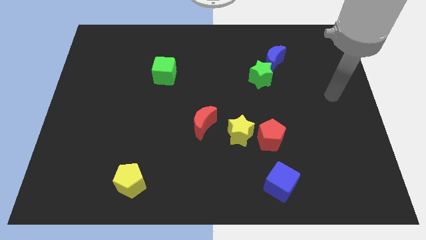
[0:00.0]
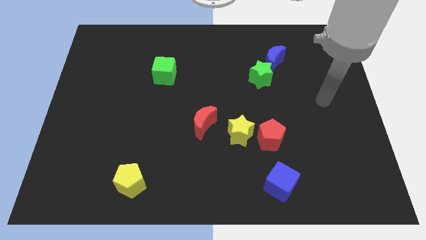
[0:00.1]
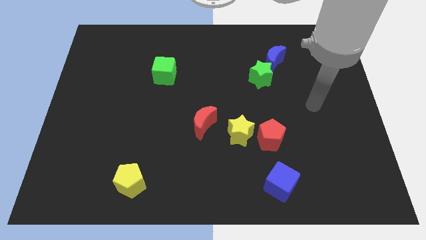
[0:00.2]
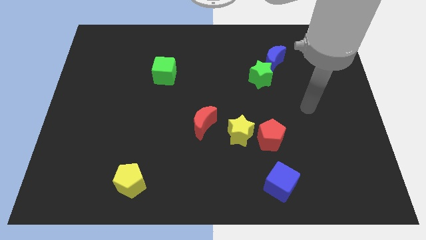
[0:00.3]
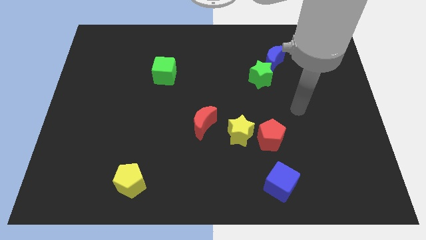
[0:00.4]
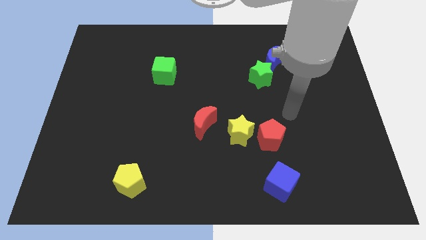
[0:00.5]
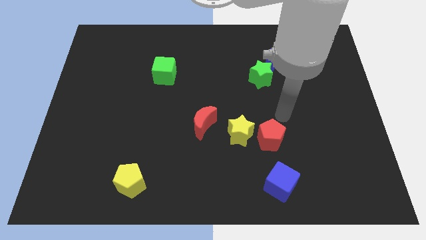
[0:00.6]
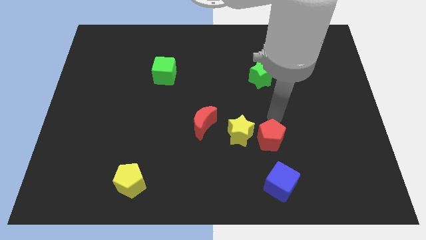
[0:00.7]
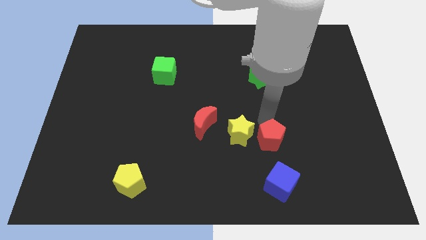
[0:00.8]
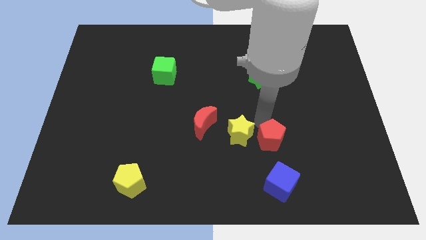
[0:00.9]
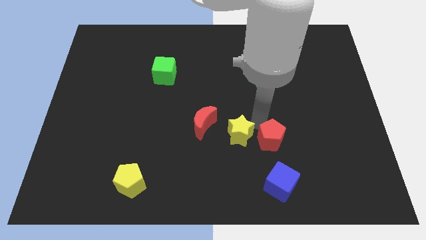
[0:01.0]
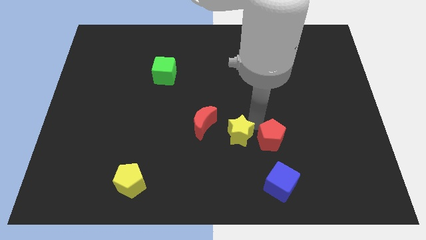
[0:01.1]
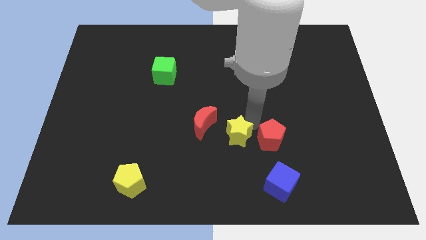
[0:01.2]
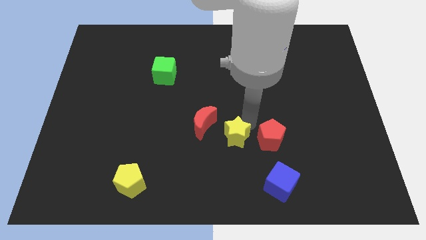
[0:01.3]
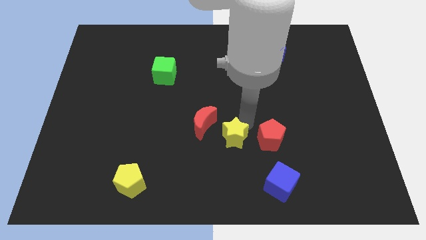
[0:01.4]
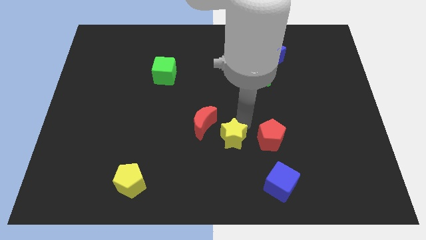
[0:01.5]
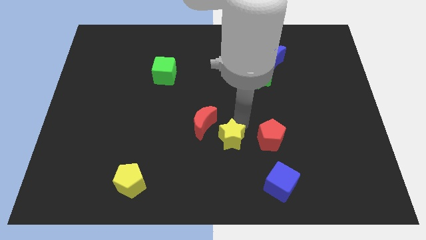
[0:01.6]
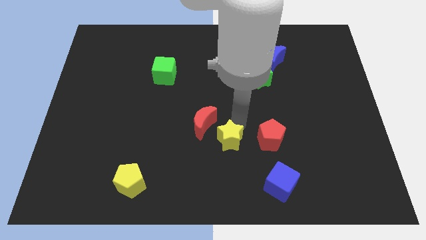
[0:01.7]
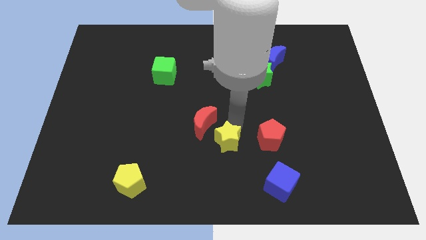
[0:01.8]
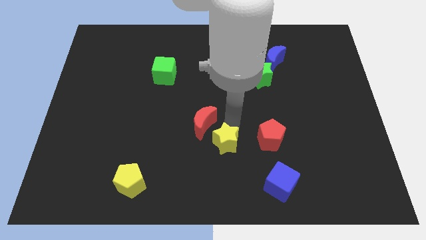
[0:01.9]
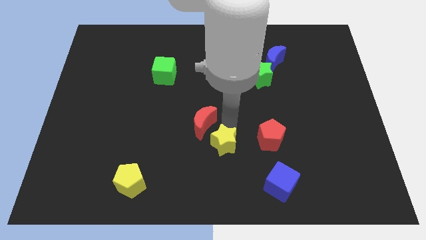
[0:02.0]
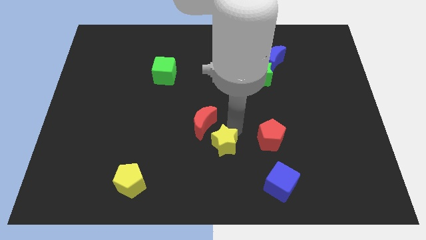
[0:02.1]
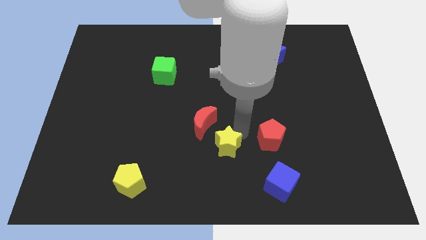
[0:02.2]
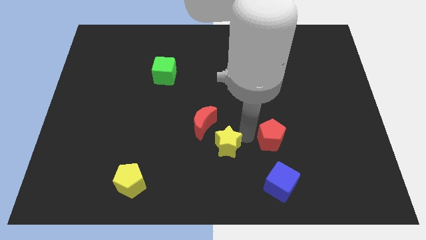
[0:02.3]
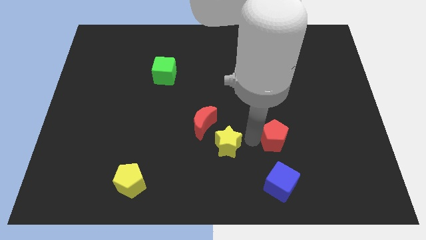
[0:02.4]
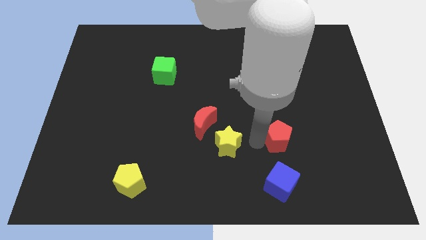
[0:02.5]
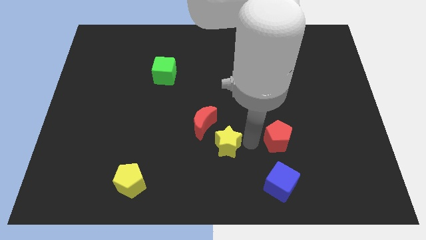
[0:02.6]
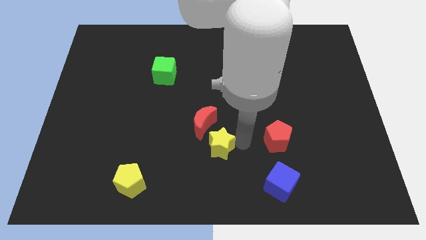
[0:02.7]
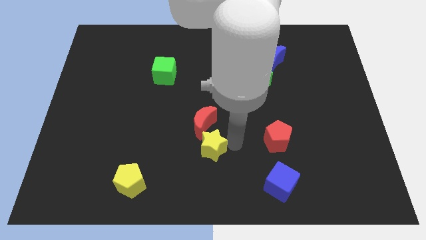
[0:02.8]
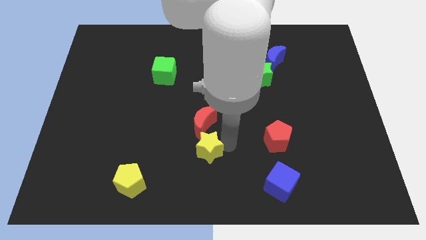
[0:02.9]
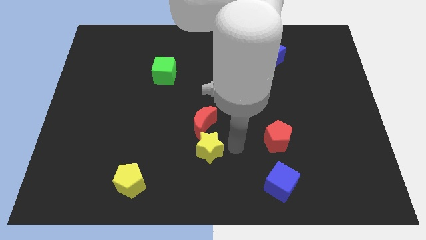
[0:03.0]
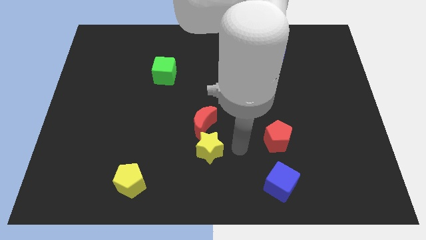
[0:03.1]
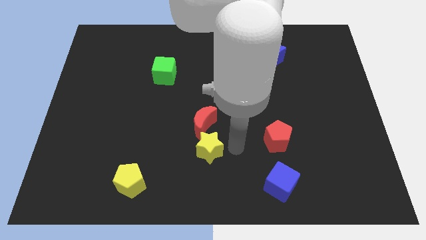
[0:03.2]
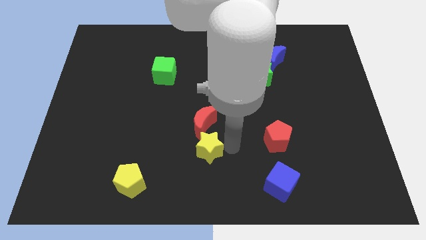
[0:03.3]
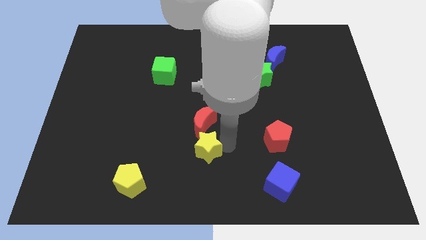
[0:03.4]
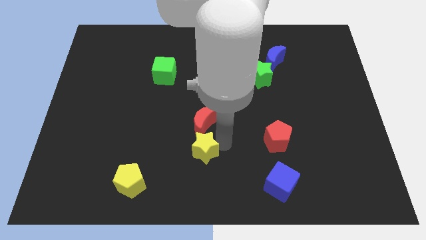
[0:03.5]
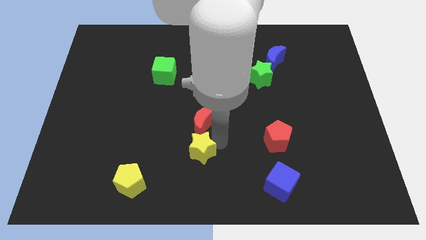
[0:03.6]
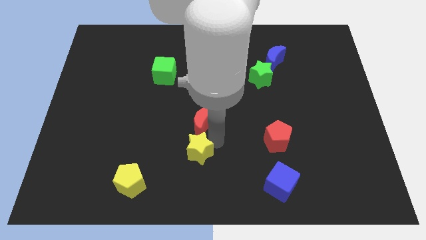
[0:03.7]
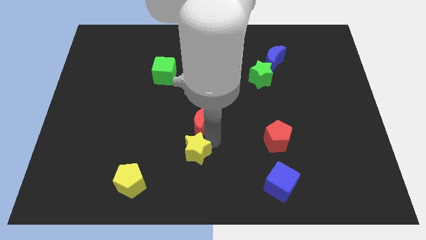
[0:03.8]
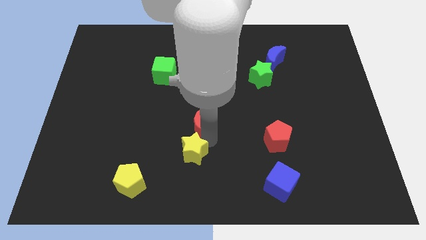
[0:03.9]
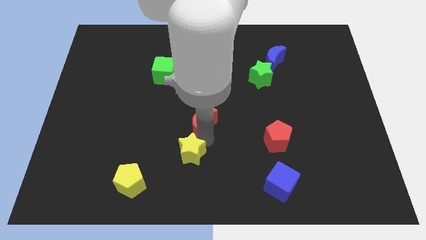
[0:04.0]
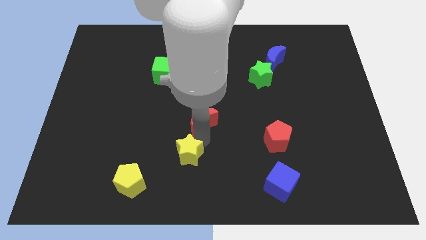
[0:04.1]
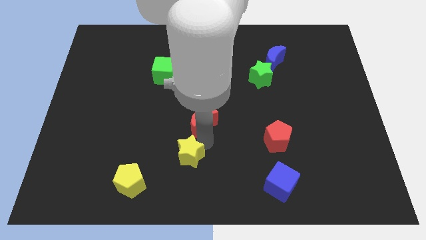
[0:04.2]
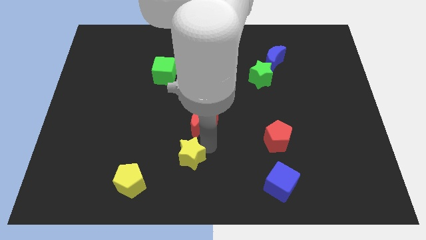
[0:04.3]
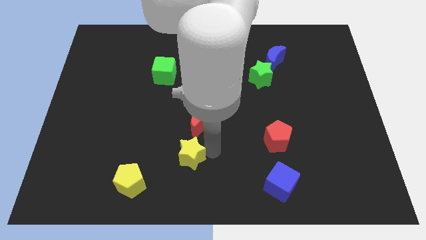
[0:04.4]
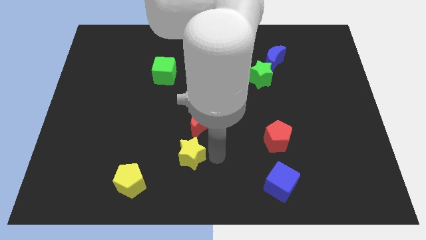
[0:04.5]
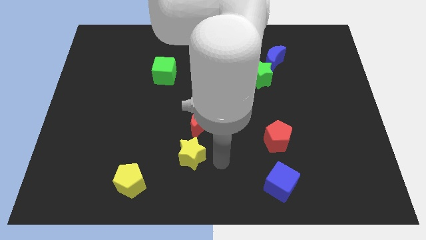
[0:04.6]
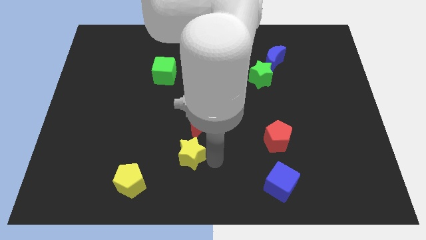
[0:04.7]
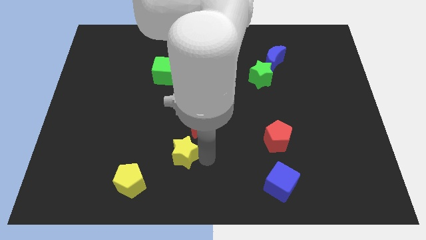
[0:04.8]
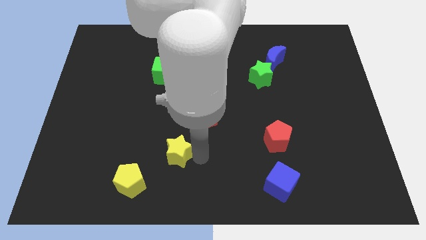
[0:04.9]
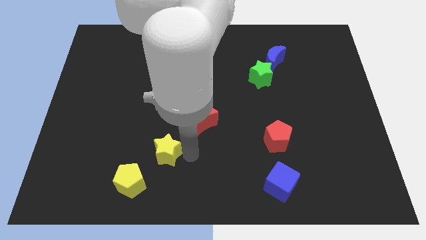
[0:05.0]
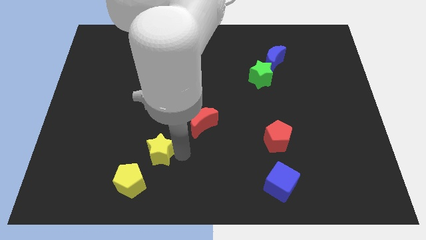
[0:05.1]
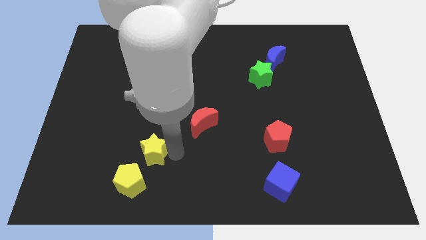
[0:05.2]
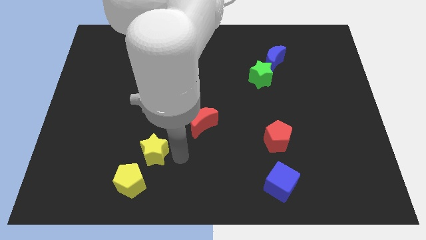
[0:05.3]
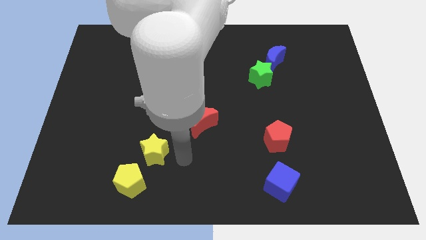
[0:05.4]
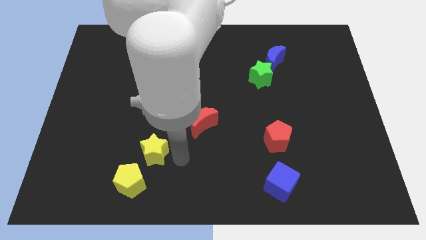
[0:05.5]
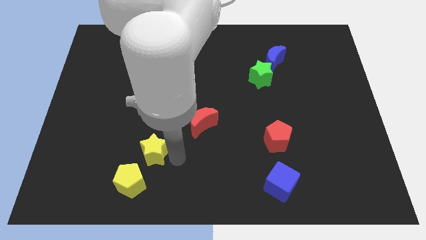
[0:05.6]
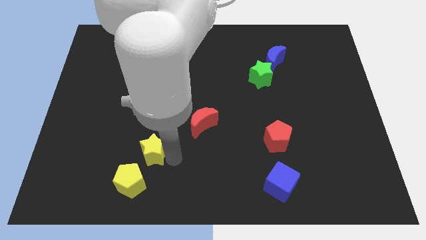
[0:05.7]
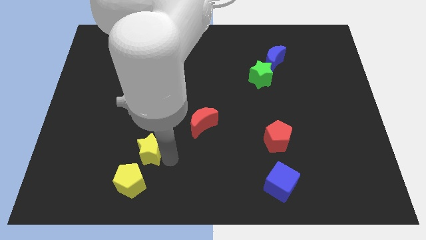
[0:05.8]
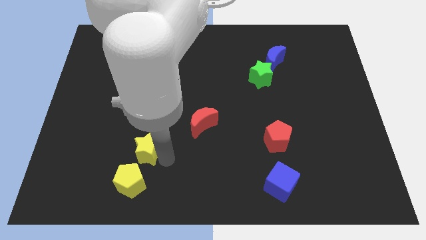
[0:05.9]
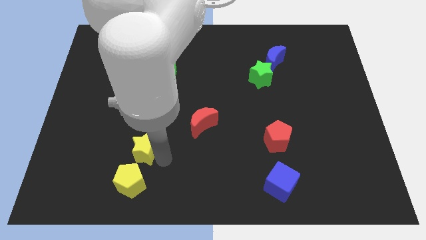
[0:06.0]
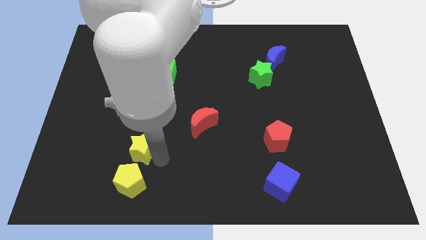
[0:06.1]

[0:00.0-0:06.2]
push the yellow star left

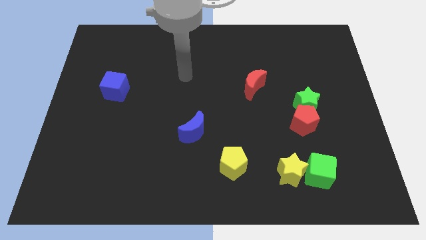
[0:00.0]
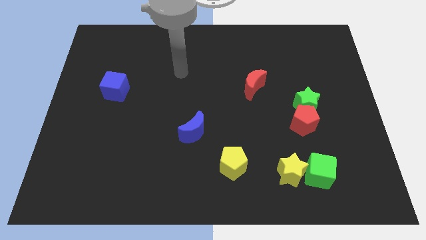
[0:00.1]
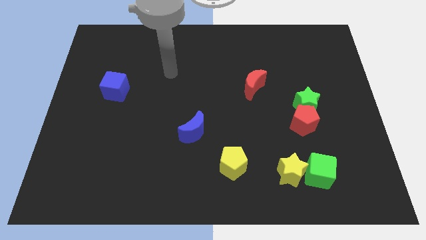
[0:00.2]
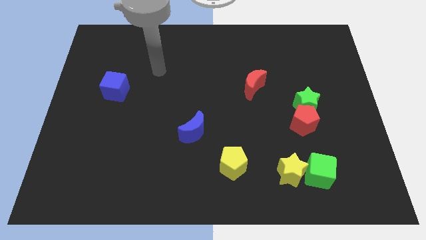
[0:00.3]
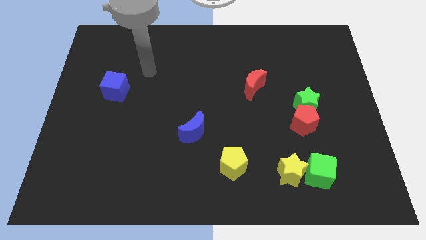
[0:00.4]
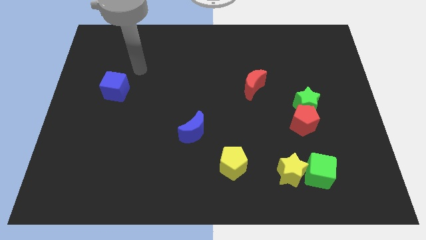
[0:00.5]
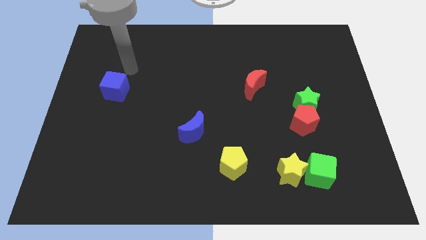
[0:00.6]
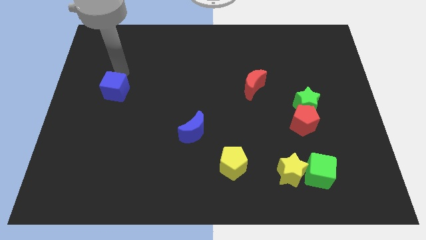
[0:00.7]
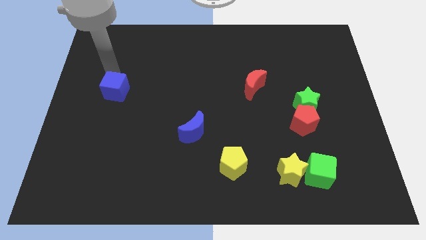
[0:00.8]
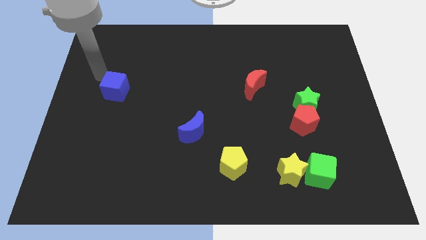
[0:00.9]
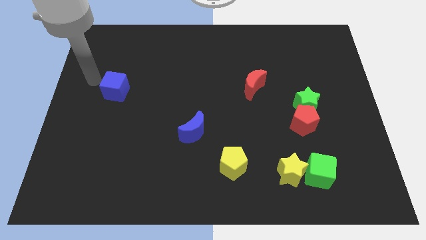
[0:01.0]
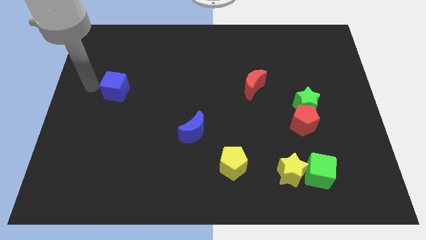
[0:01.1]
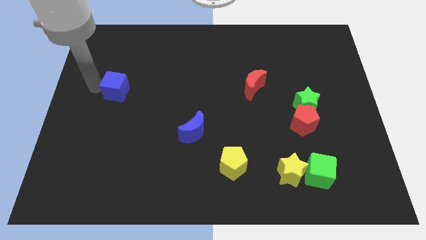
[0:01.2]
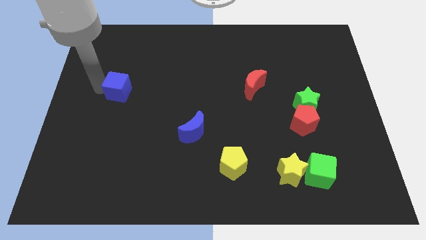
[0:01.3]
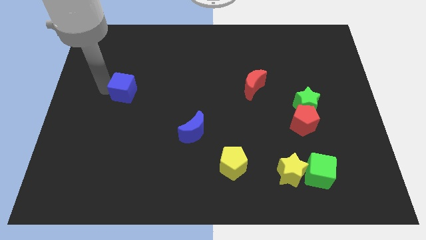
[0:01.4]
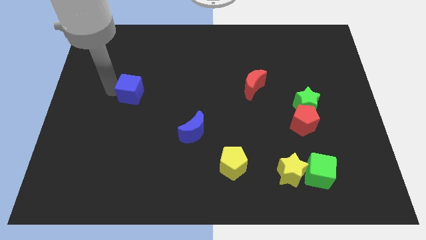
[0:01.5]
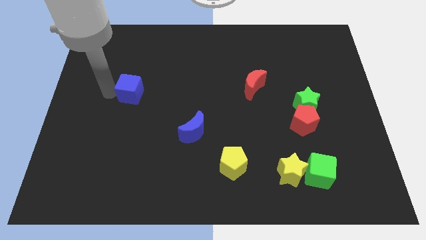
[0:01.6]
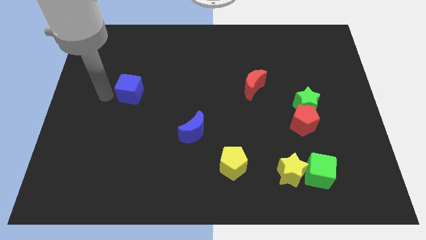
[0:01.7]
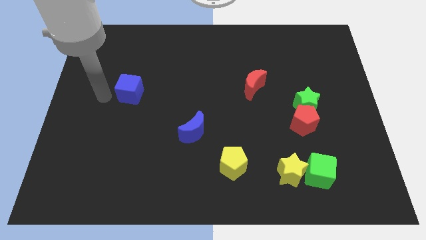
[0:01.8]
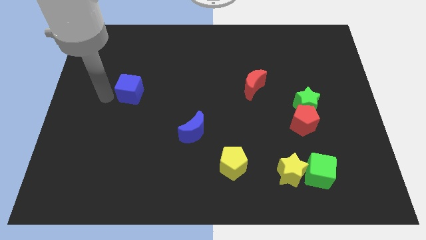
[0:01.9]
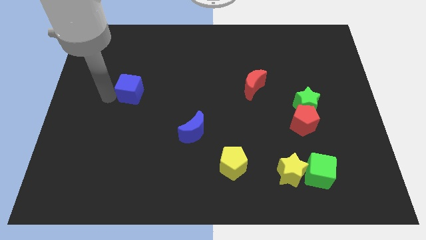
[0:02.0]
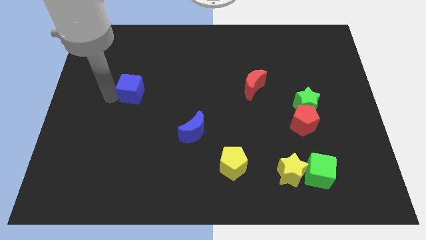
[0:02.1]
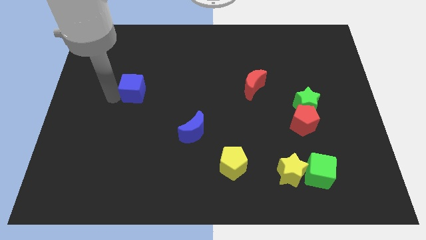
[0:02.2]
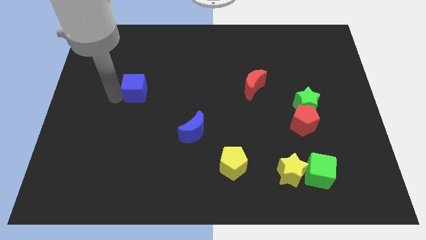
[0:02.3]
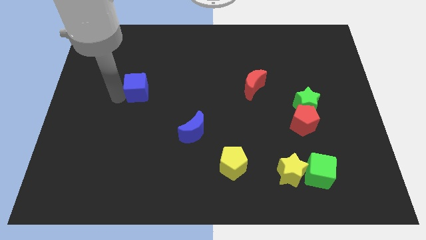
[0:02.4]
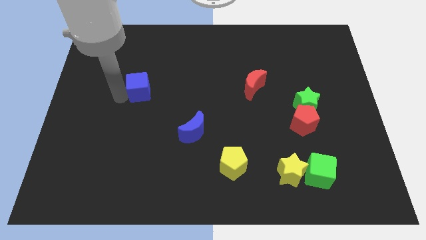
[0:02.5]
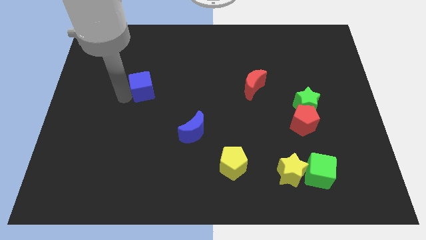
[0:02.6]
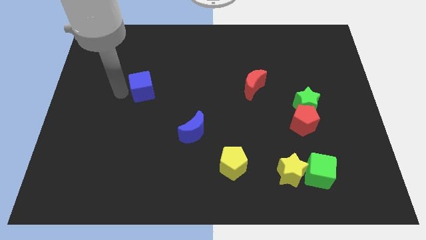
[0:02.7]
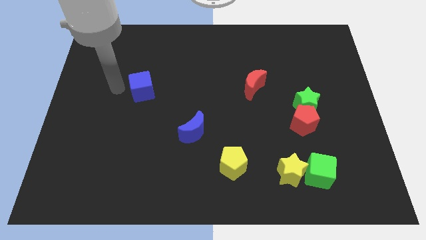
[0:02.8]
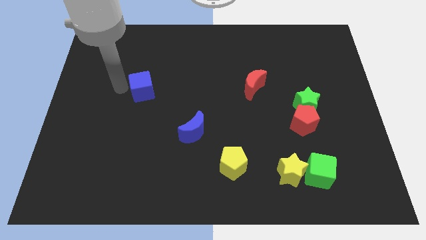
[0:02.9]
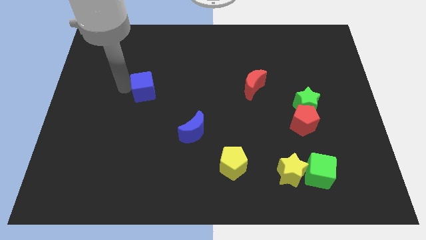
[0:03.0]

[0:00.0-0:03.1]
move the blue cube a little bit to the right
